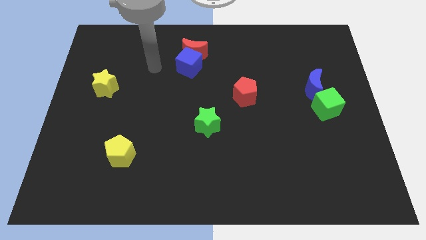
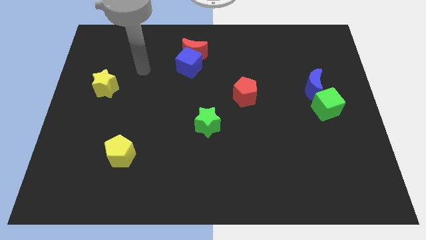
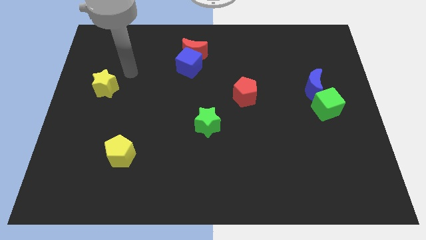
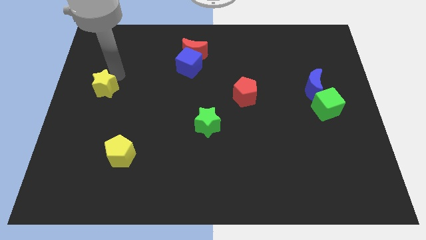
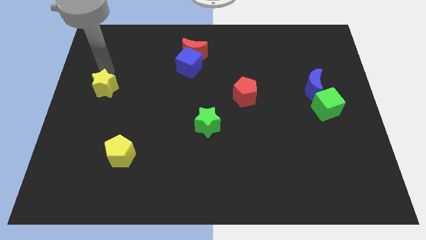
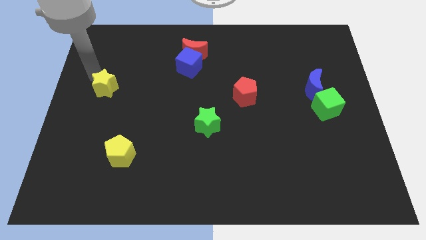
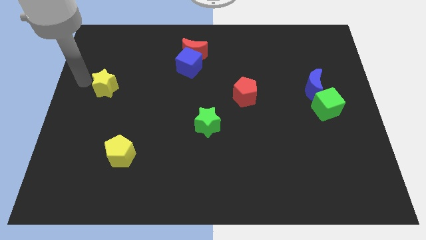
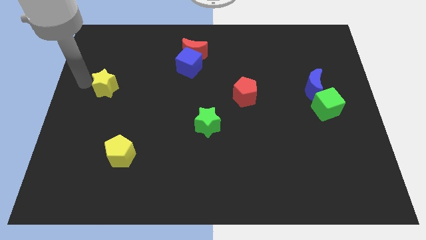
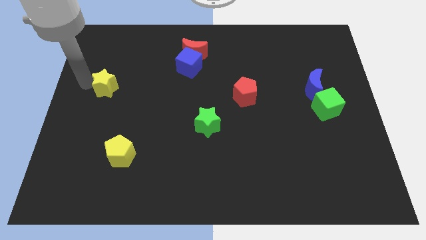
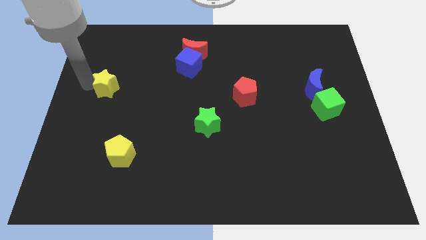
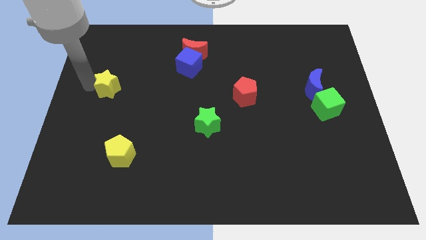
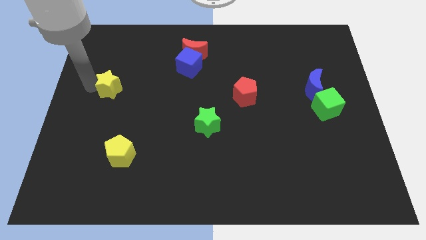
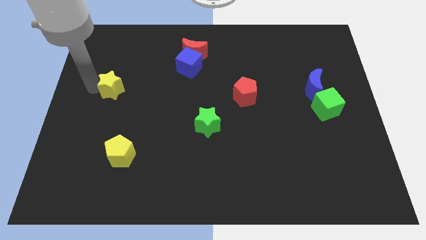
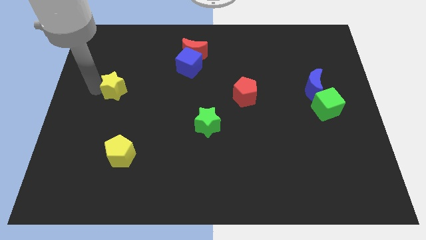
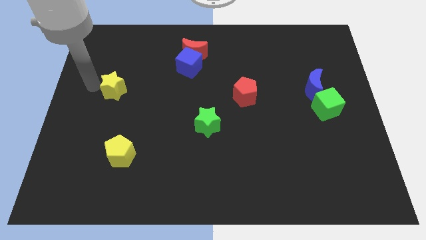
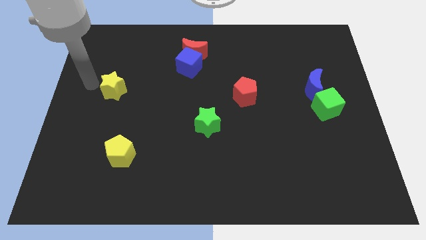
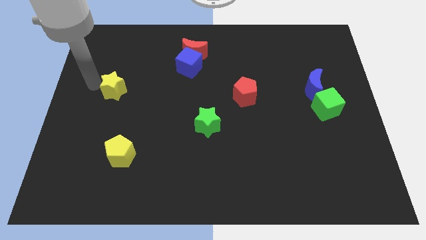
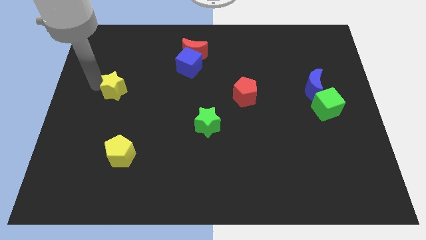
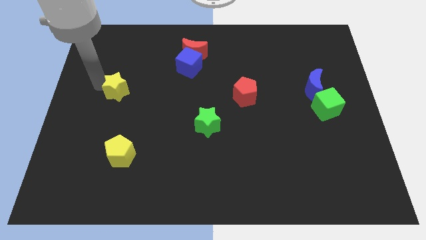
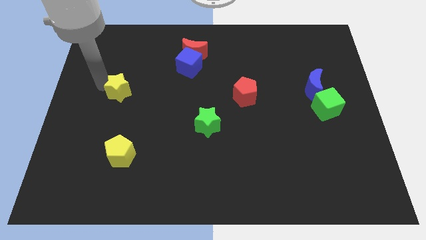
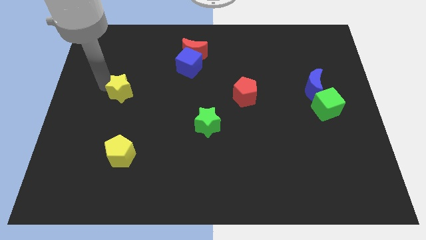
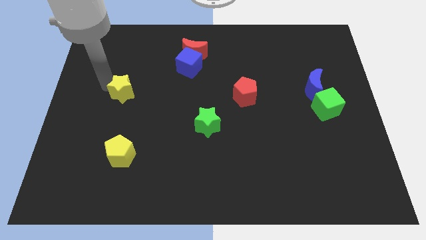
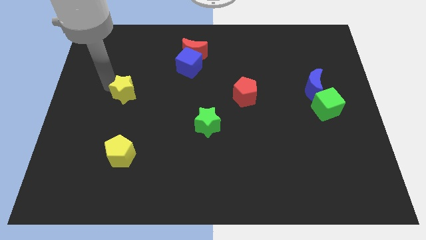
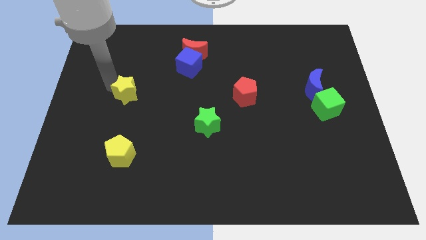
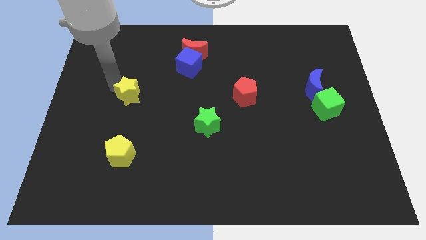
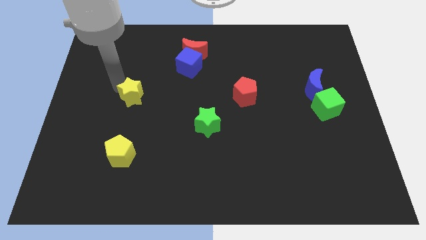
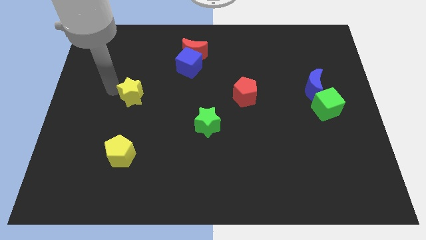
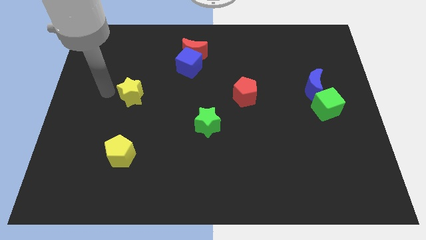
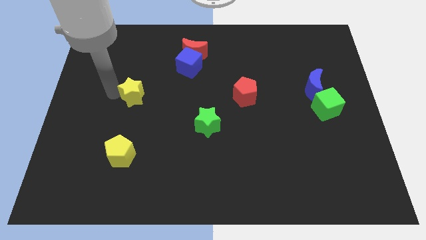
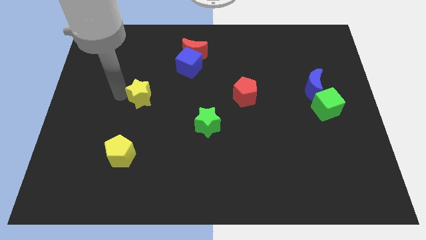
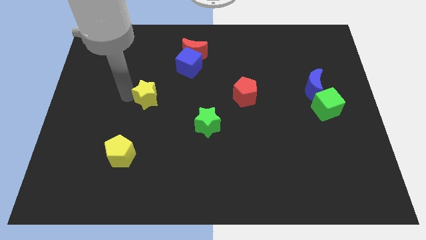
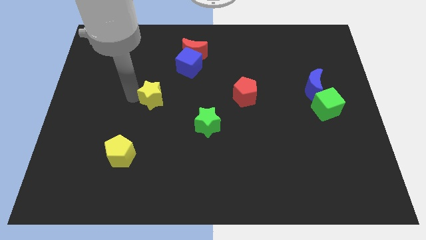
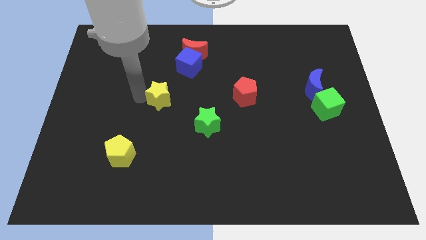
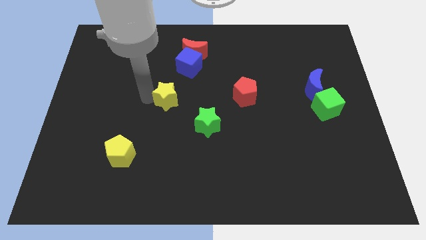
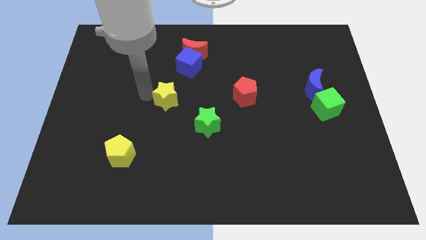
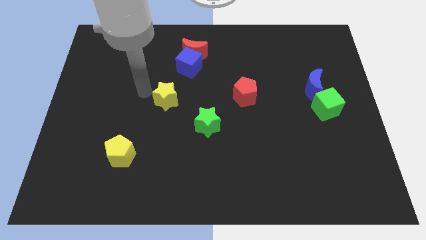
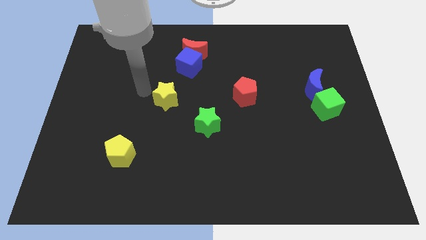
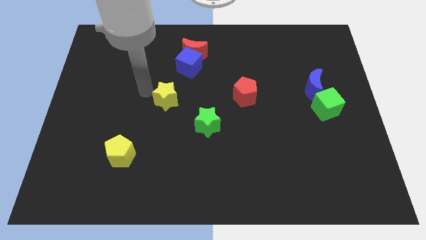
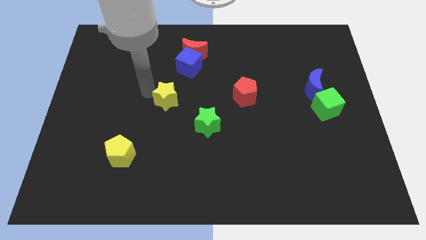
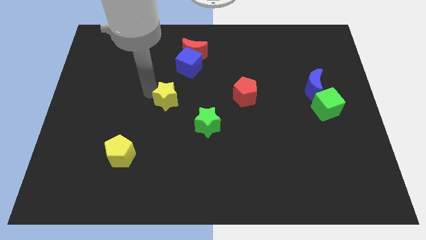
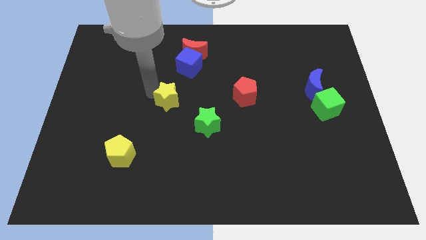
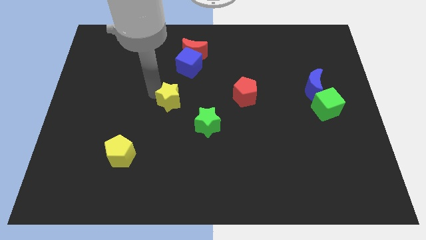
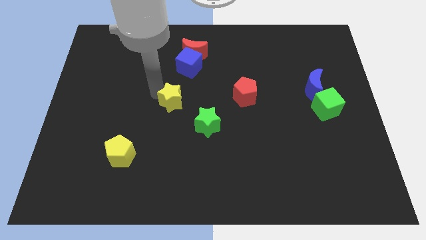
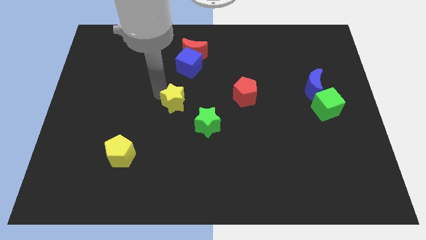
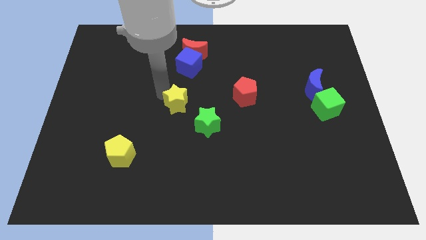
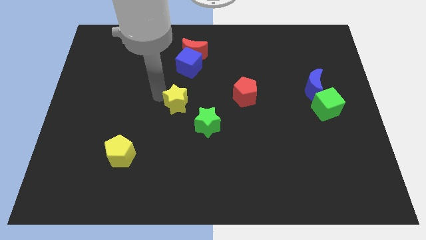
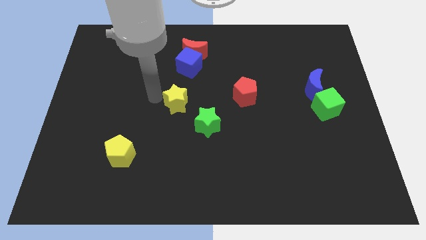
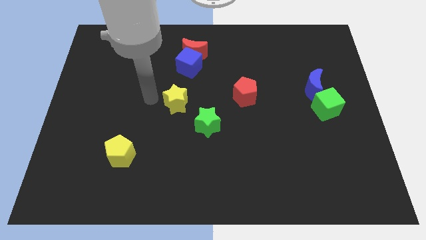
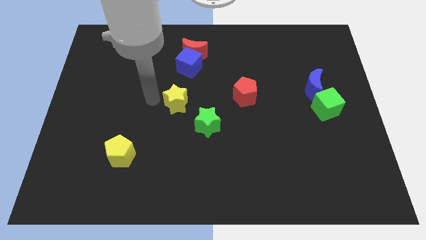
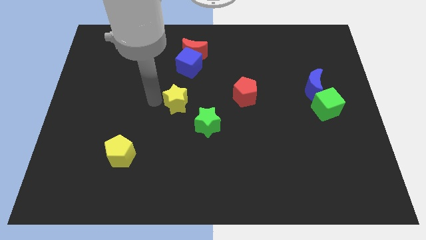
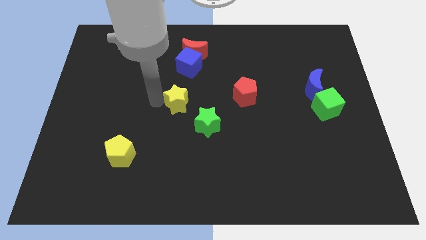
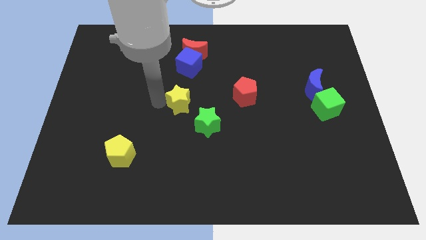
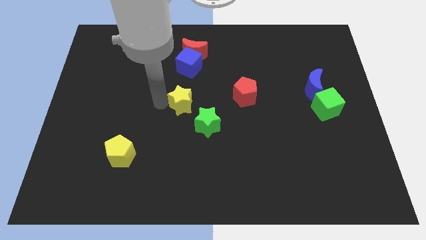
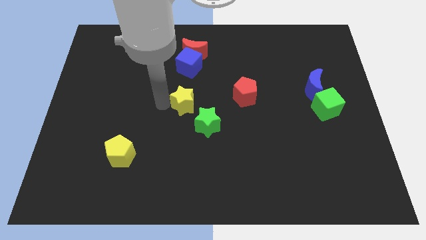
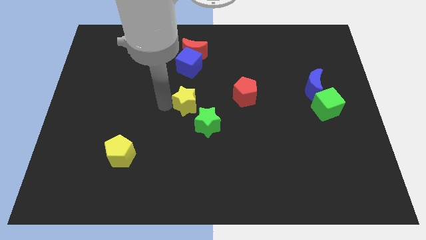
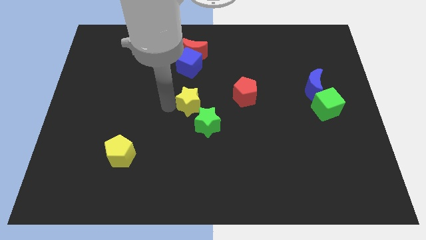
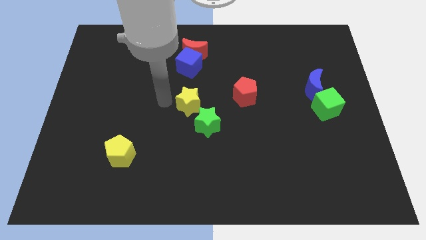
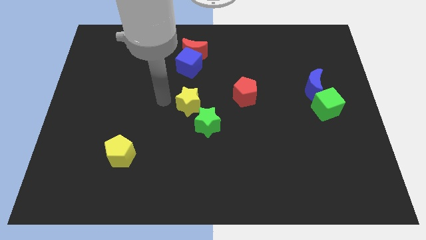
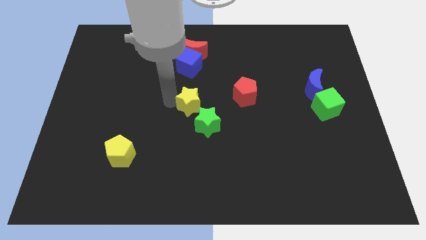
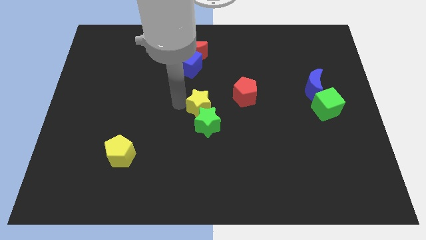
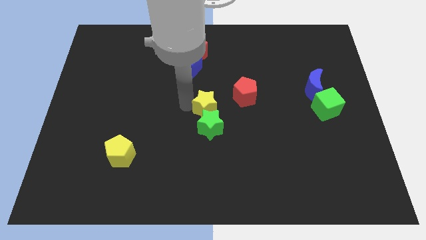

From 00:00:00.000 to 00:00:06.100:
push the yellow star to the bottom left side of the red pentagon

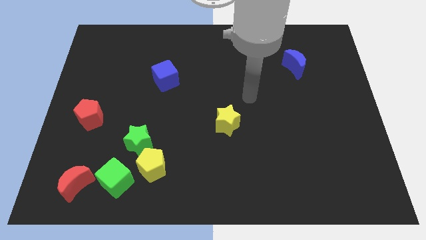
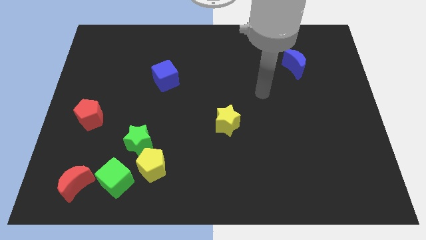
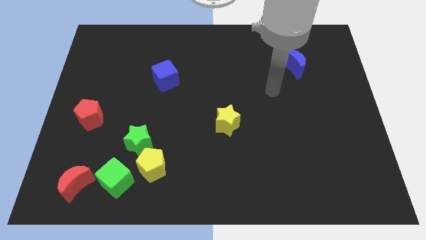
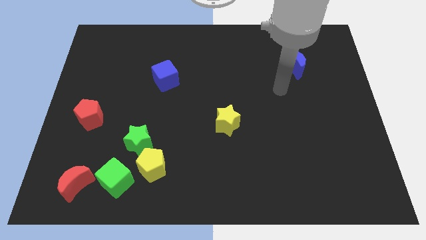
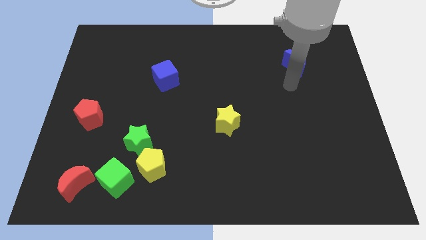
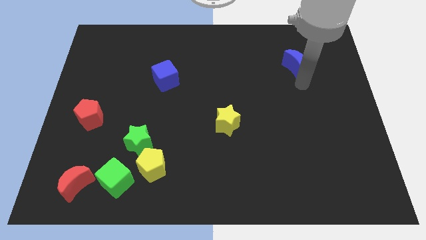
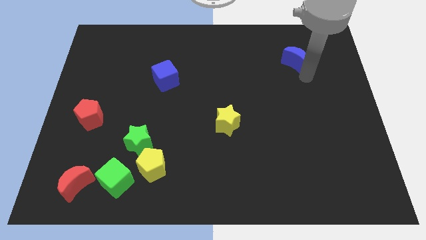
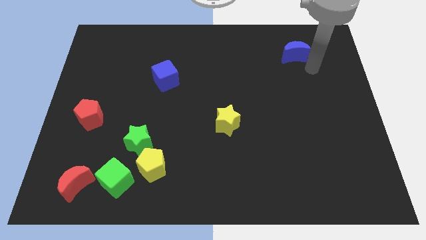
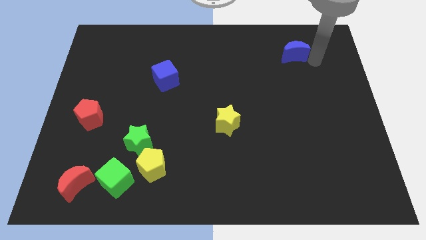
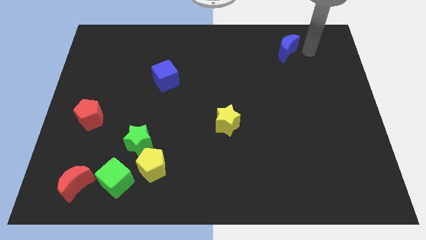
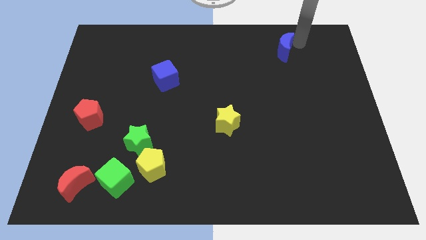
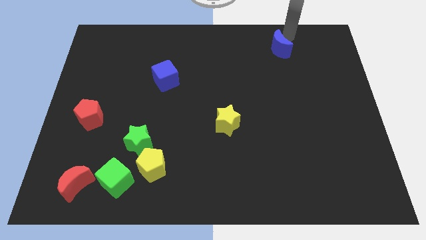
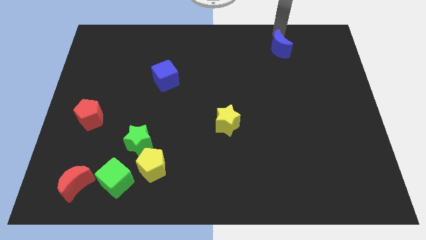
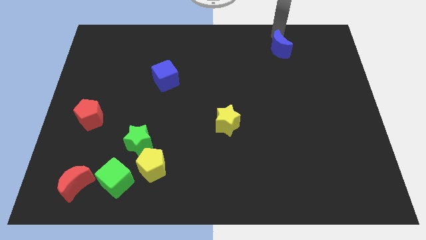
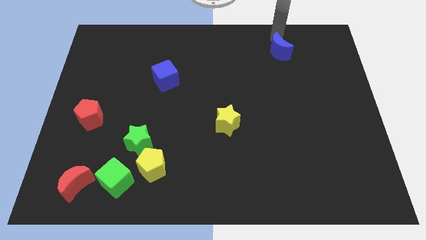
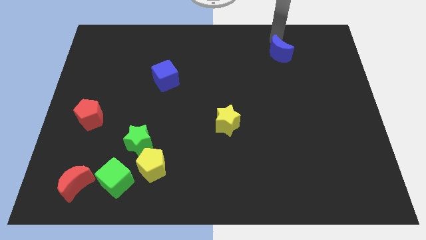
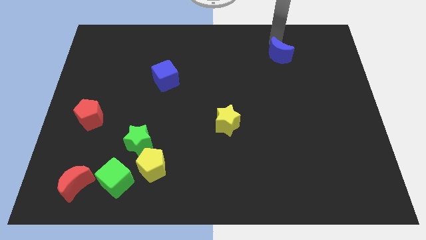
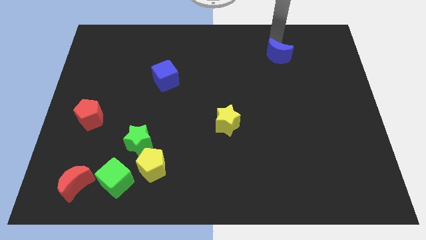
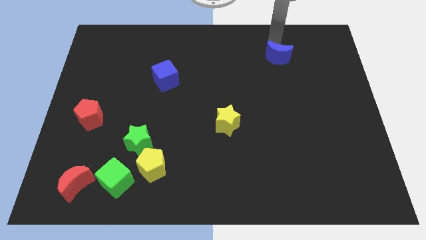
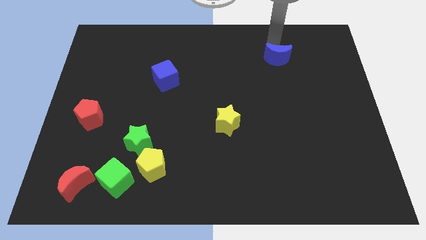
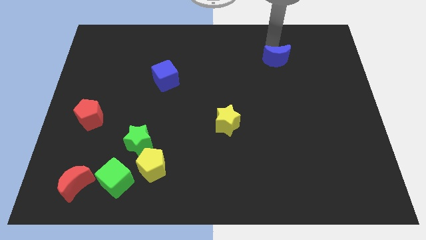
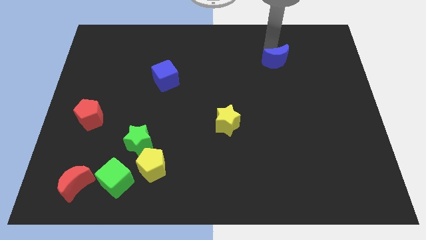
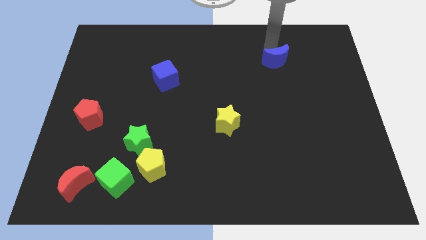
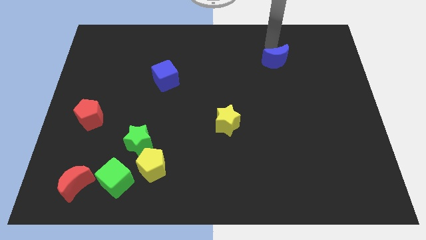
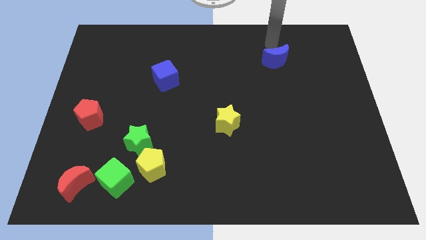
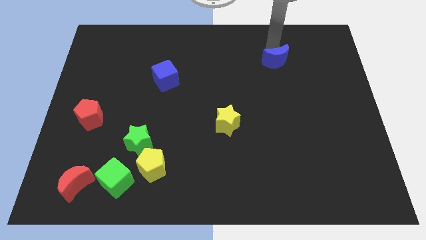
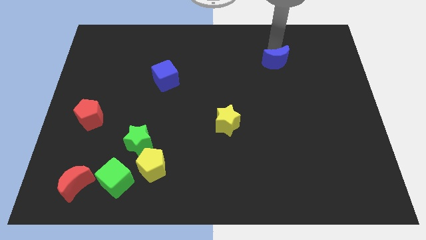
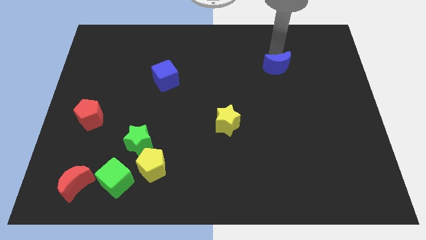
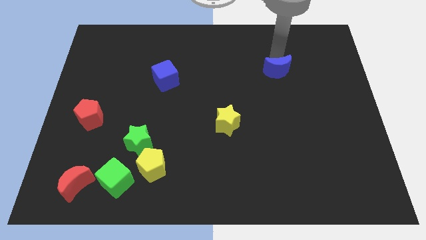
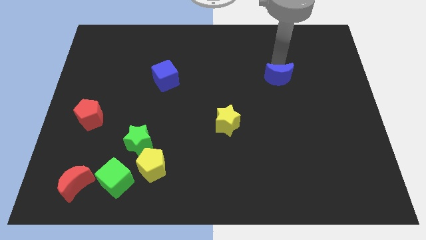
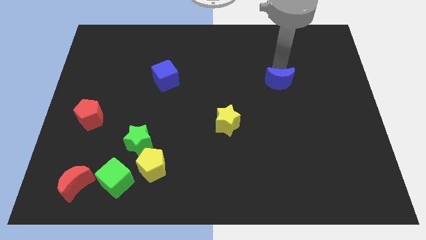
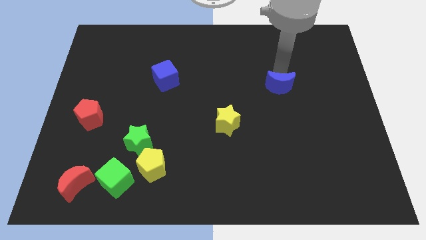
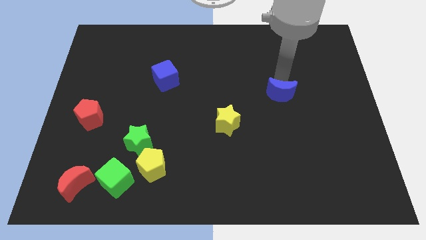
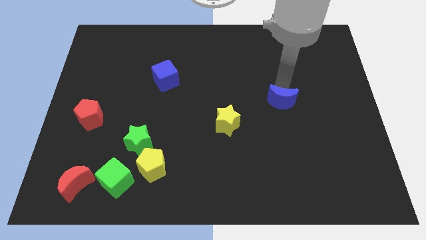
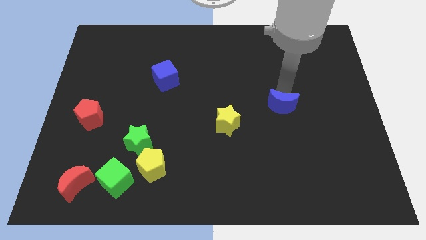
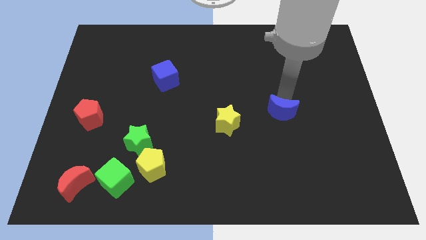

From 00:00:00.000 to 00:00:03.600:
push the blue moon just right of the yellow star
